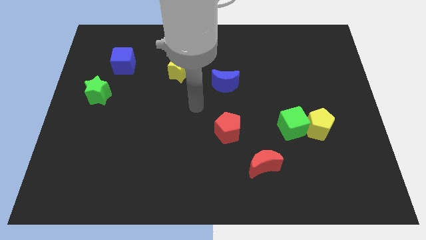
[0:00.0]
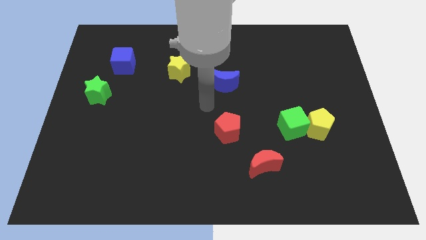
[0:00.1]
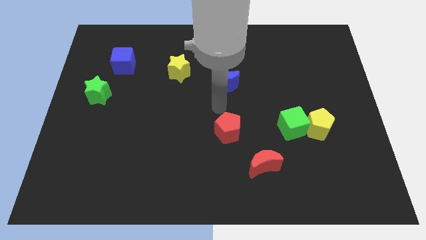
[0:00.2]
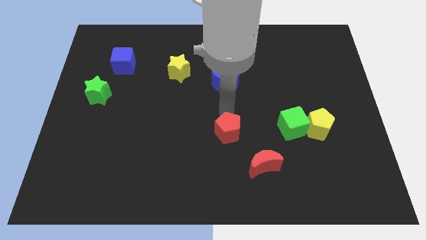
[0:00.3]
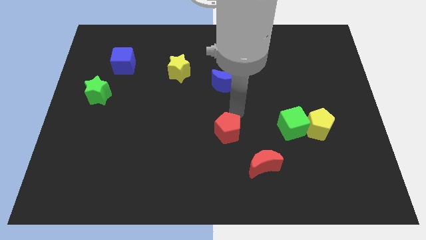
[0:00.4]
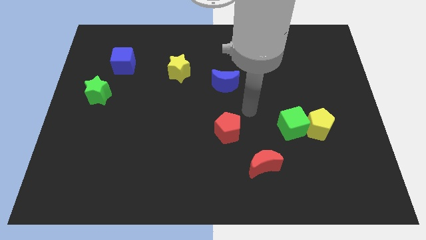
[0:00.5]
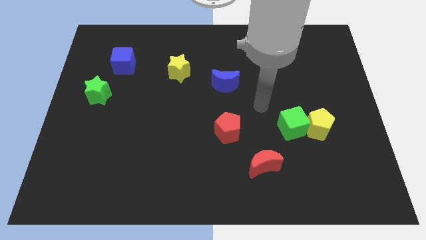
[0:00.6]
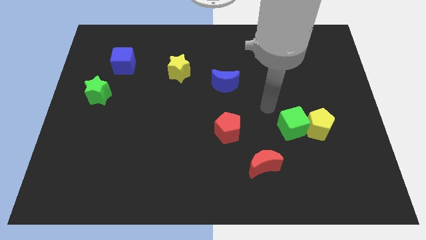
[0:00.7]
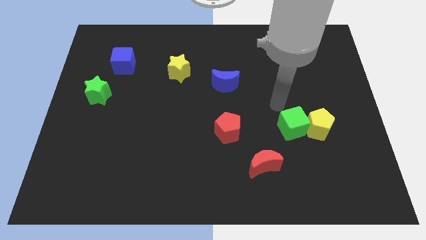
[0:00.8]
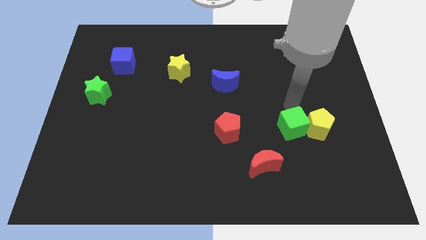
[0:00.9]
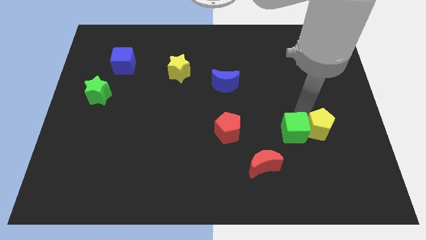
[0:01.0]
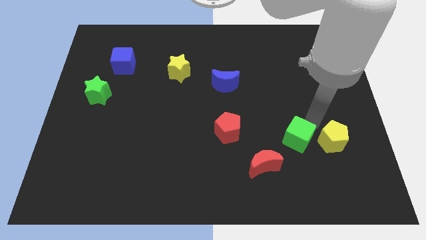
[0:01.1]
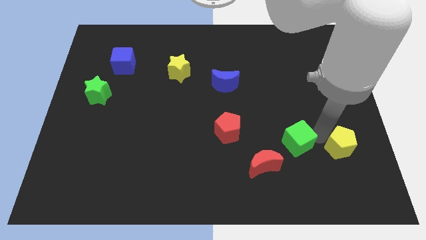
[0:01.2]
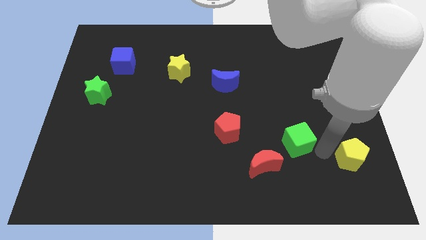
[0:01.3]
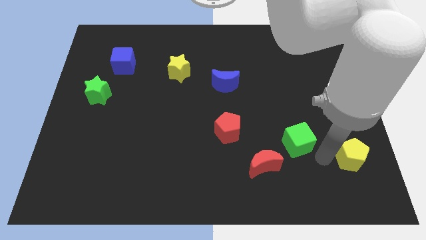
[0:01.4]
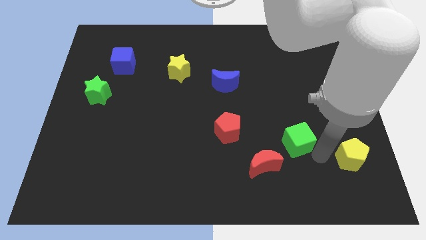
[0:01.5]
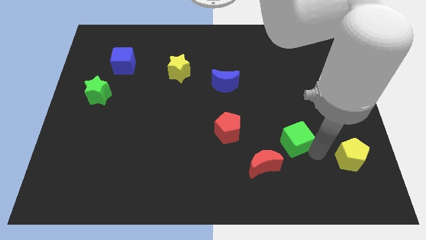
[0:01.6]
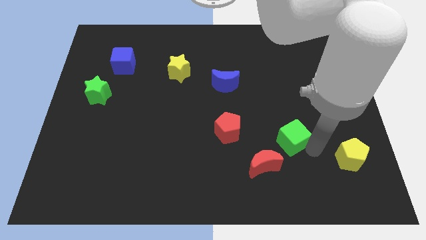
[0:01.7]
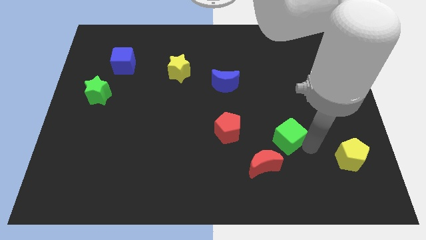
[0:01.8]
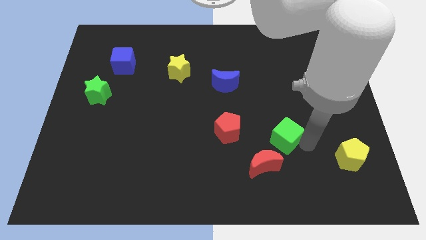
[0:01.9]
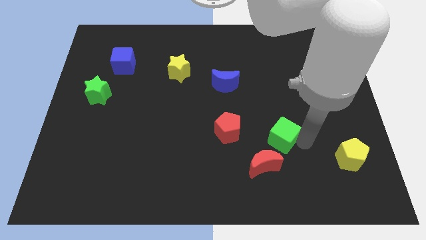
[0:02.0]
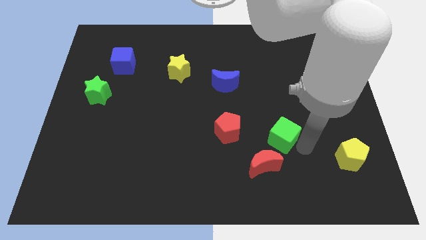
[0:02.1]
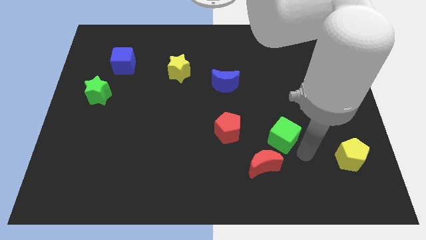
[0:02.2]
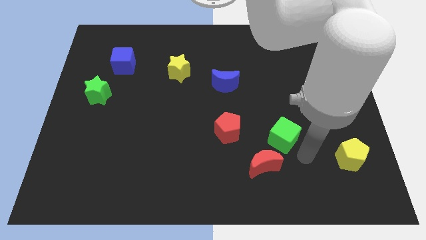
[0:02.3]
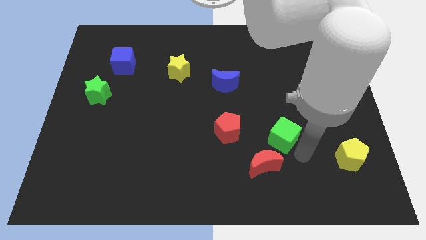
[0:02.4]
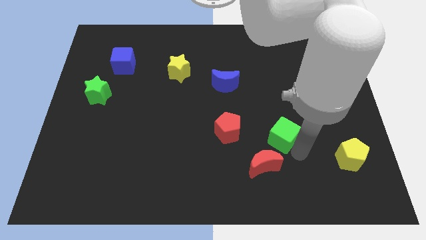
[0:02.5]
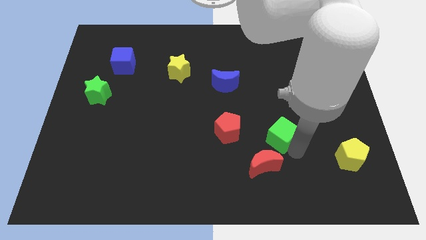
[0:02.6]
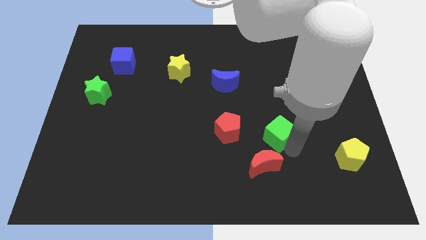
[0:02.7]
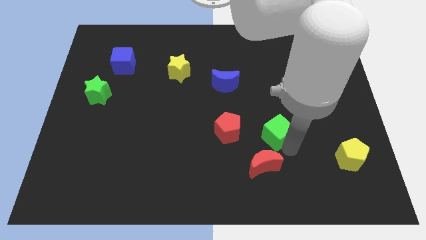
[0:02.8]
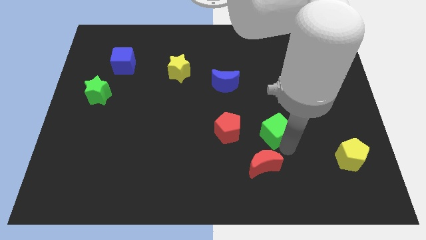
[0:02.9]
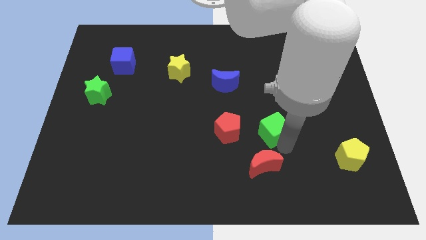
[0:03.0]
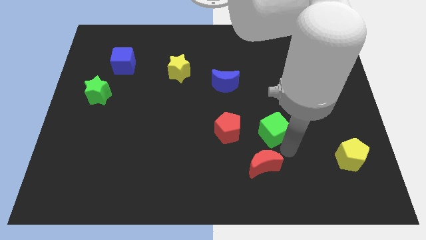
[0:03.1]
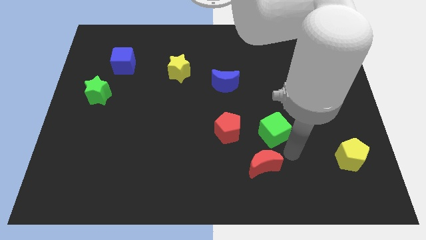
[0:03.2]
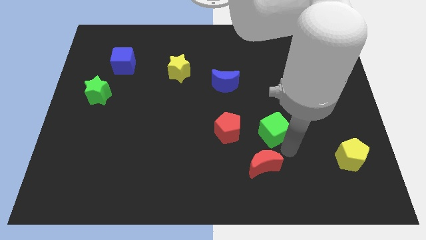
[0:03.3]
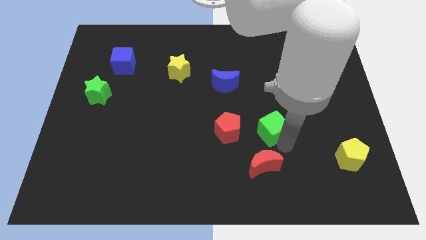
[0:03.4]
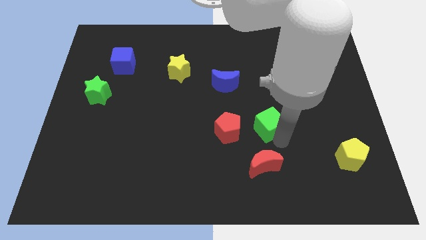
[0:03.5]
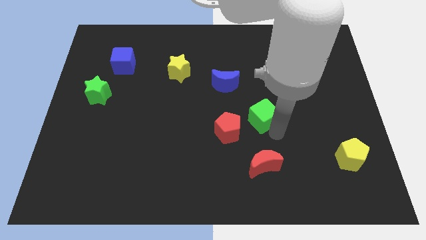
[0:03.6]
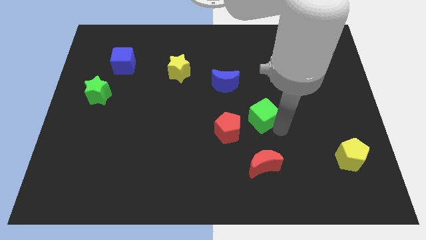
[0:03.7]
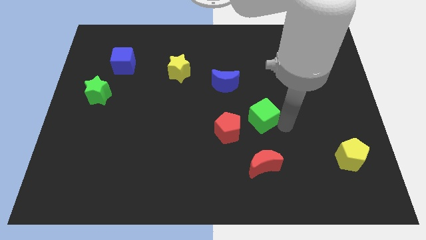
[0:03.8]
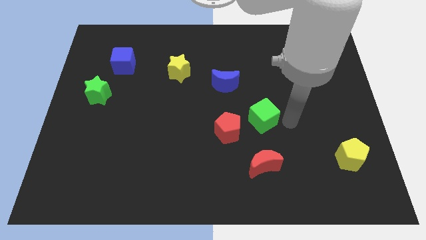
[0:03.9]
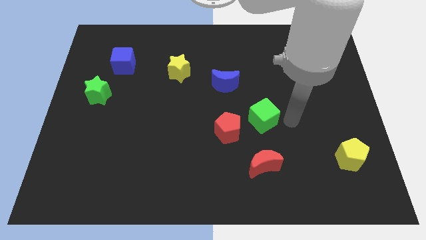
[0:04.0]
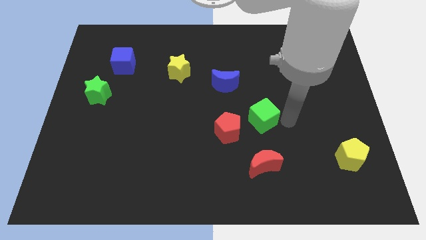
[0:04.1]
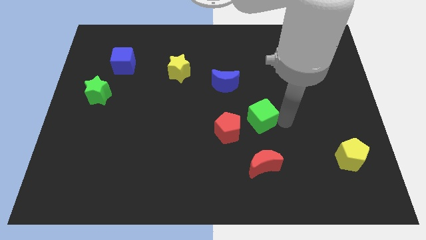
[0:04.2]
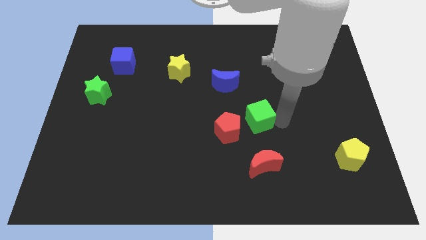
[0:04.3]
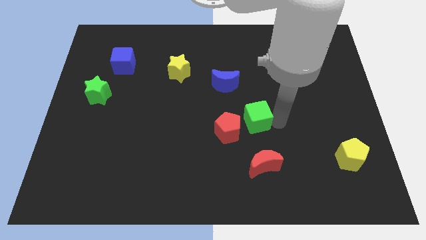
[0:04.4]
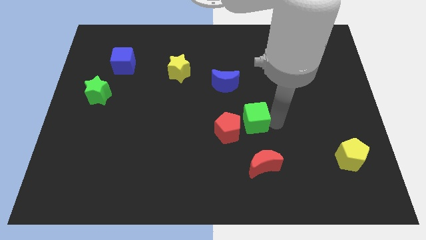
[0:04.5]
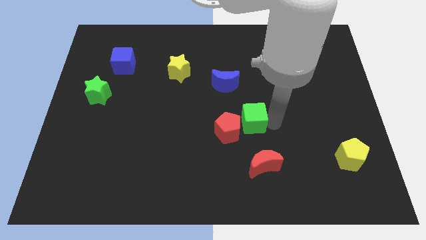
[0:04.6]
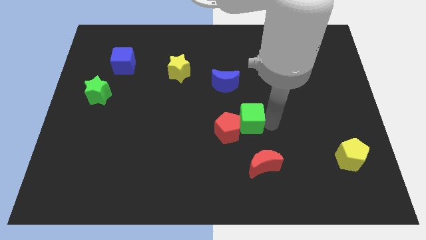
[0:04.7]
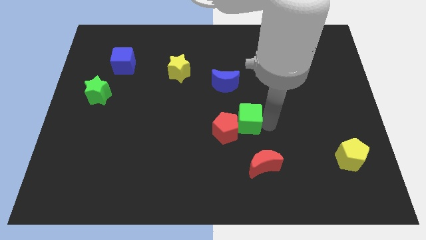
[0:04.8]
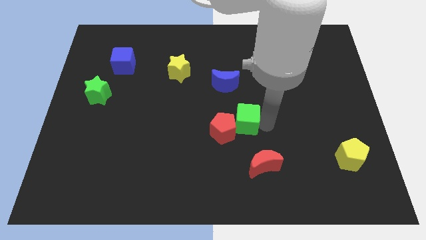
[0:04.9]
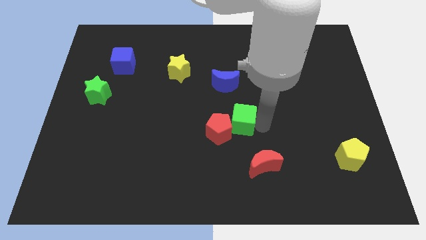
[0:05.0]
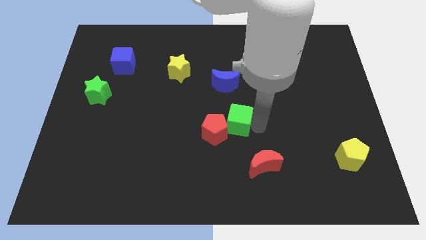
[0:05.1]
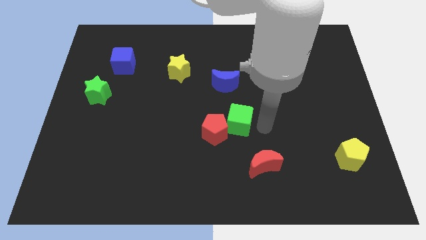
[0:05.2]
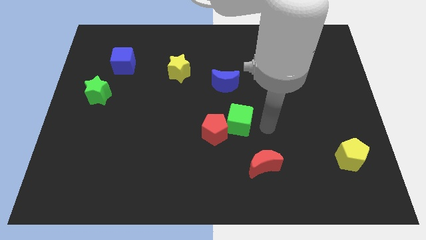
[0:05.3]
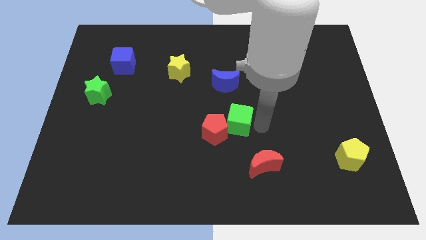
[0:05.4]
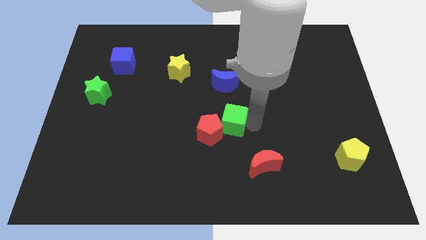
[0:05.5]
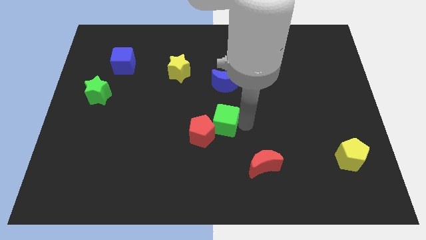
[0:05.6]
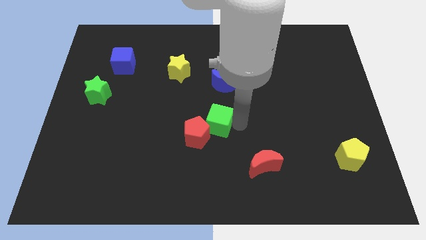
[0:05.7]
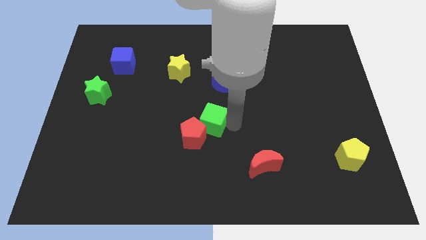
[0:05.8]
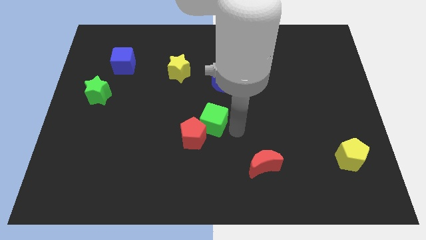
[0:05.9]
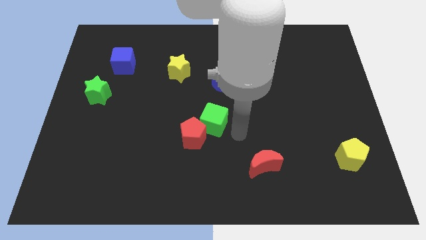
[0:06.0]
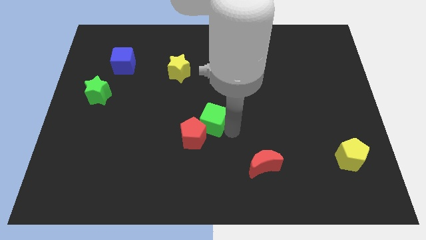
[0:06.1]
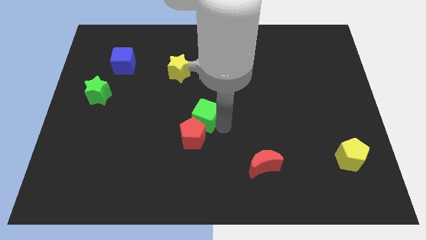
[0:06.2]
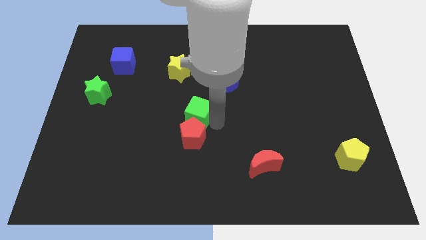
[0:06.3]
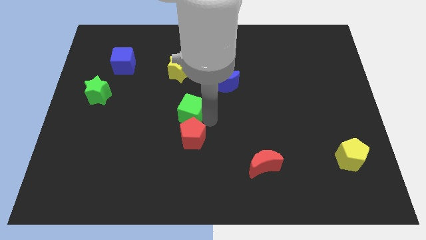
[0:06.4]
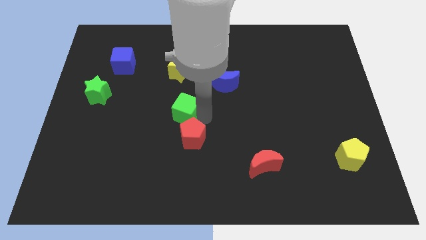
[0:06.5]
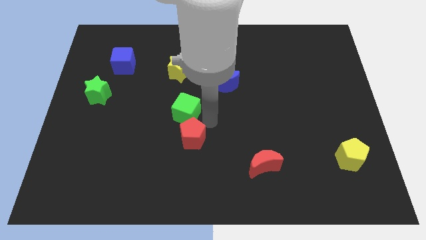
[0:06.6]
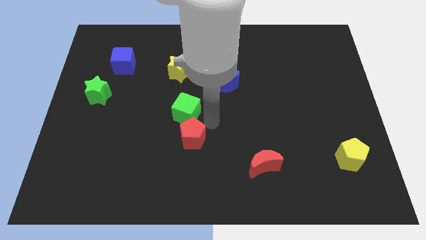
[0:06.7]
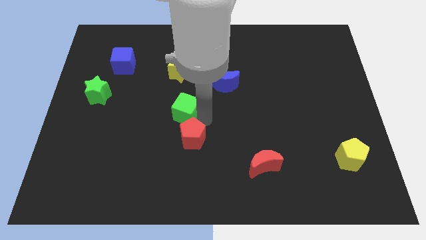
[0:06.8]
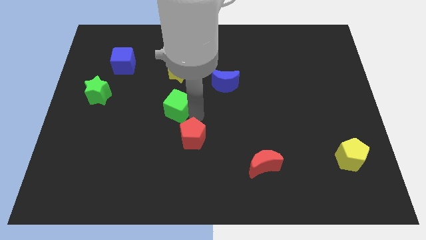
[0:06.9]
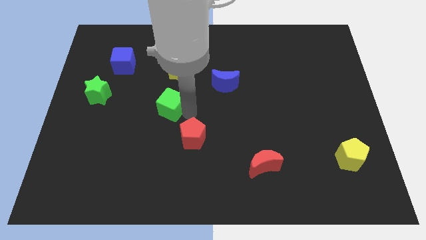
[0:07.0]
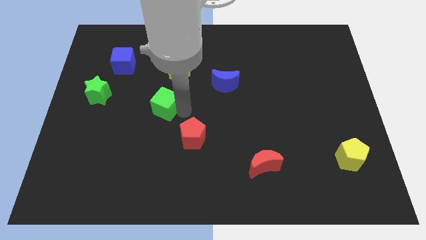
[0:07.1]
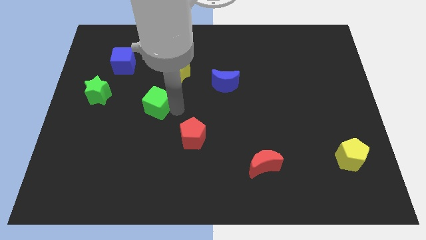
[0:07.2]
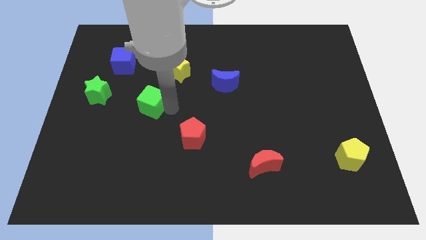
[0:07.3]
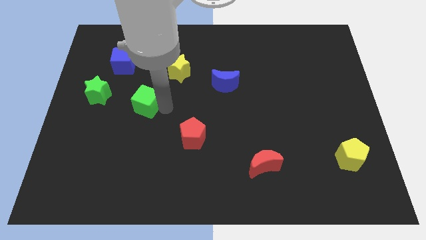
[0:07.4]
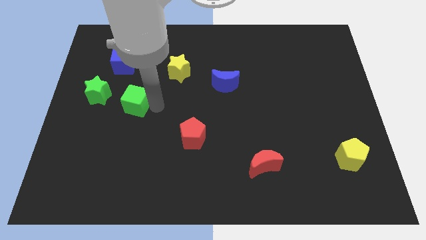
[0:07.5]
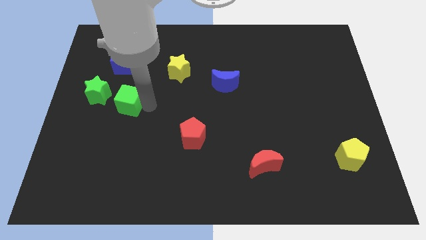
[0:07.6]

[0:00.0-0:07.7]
put the green cube to the bottom side of the blue cube
